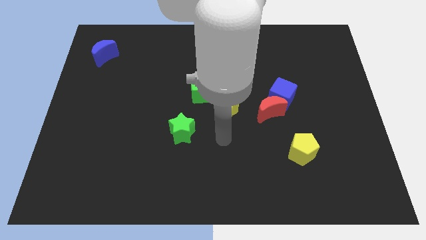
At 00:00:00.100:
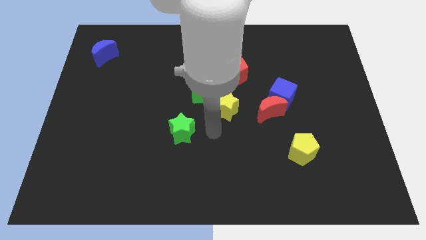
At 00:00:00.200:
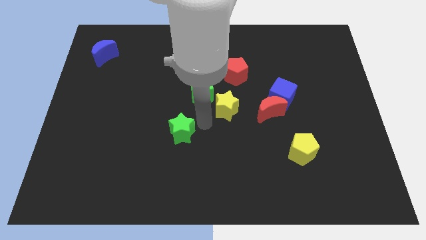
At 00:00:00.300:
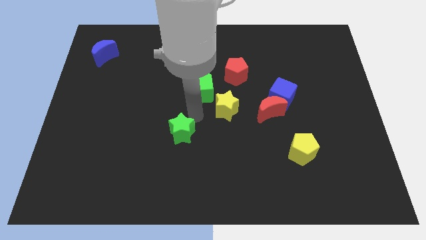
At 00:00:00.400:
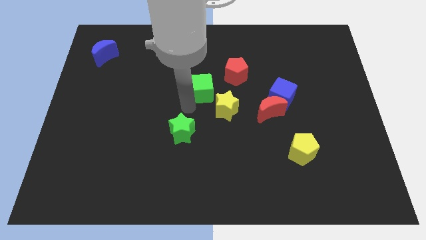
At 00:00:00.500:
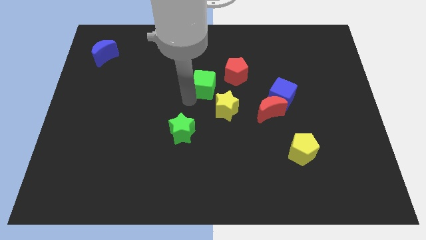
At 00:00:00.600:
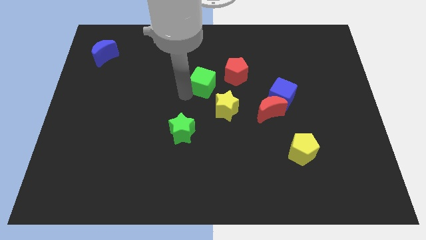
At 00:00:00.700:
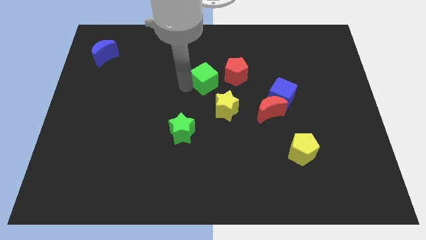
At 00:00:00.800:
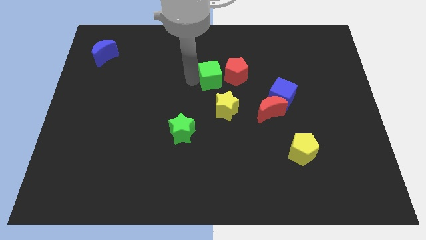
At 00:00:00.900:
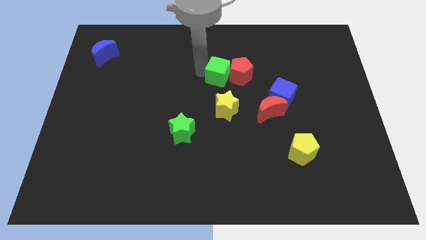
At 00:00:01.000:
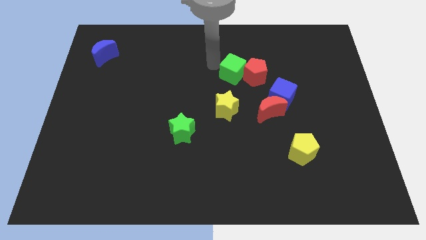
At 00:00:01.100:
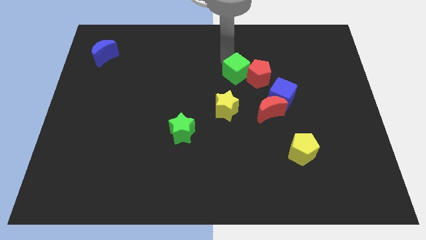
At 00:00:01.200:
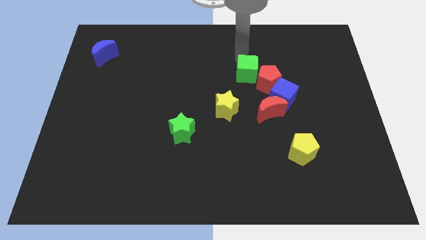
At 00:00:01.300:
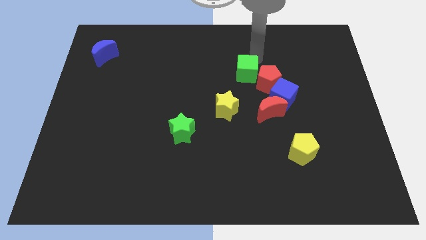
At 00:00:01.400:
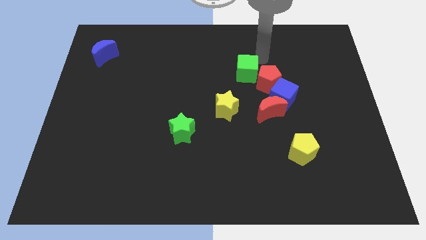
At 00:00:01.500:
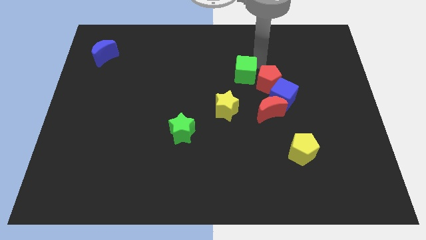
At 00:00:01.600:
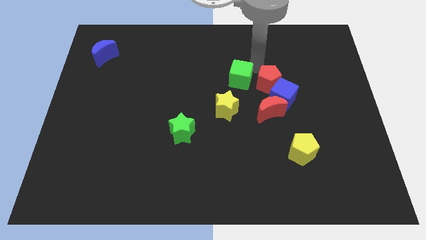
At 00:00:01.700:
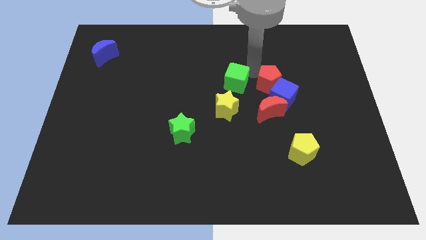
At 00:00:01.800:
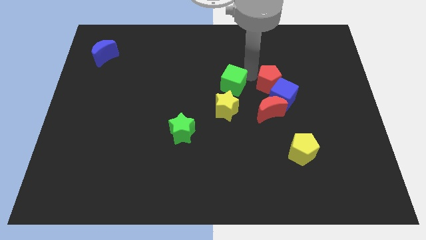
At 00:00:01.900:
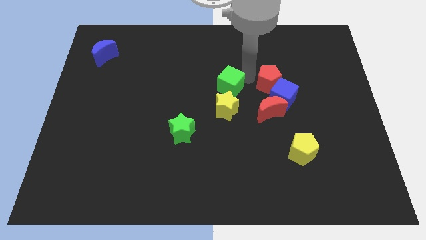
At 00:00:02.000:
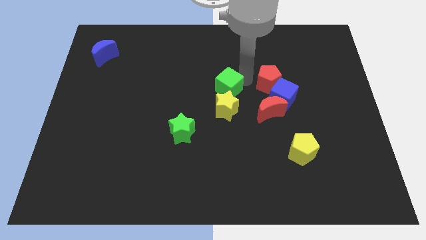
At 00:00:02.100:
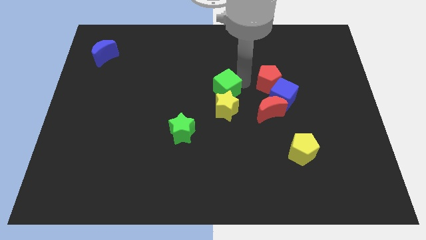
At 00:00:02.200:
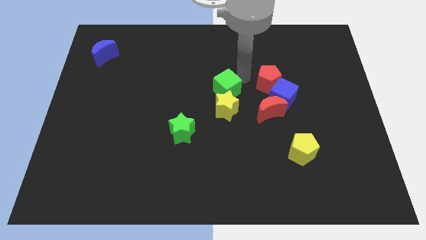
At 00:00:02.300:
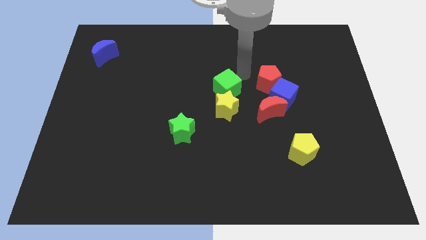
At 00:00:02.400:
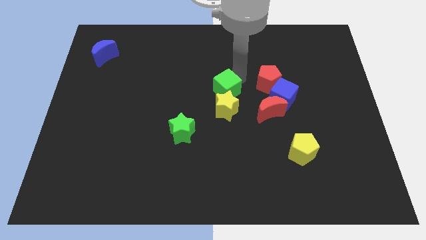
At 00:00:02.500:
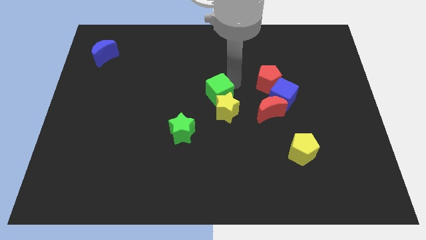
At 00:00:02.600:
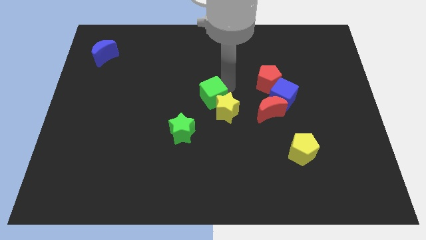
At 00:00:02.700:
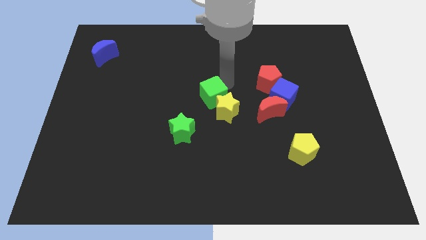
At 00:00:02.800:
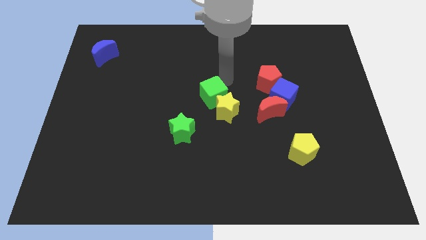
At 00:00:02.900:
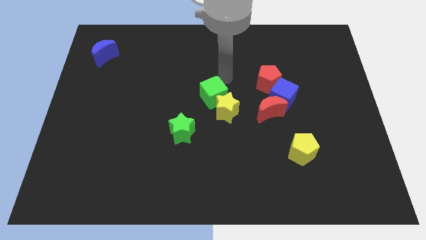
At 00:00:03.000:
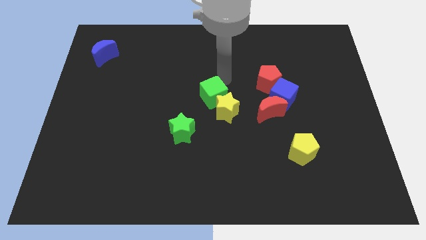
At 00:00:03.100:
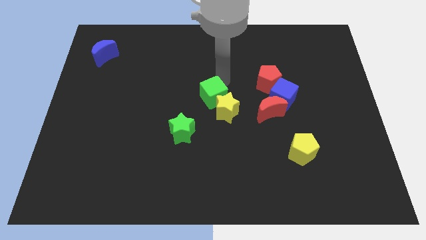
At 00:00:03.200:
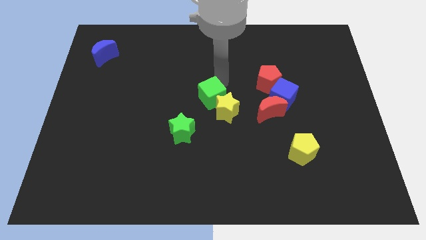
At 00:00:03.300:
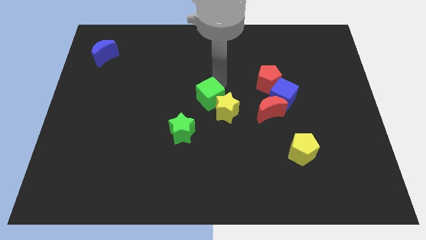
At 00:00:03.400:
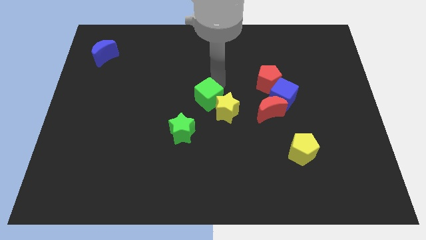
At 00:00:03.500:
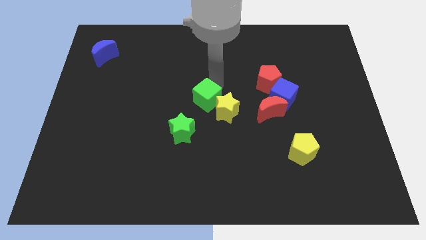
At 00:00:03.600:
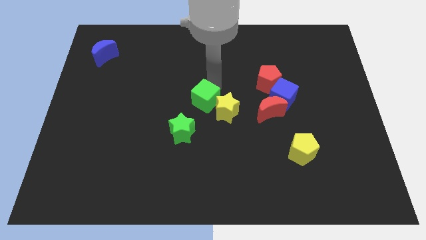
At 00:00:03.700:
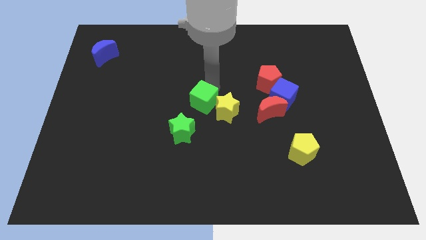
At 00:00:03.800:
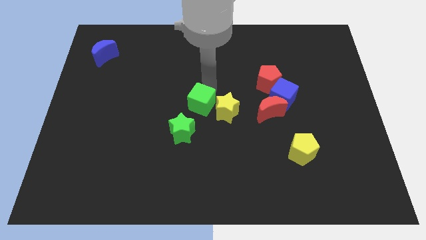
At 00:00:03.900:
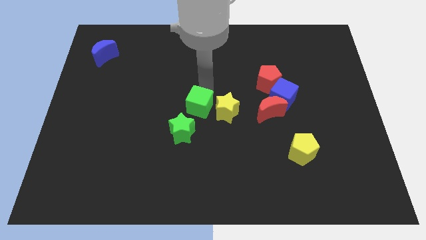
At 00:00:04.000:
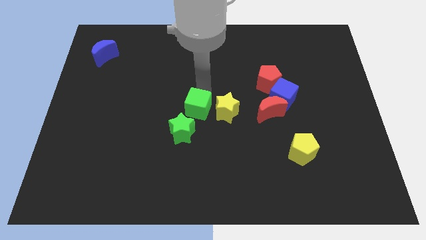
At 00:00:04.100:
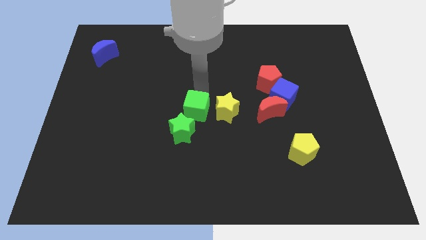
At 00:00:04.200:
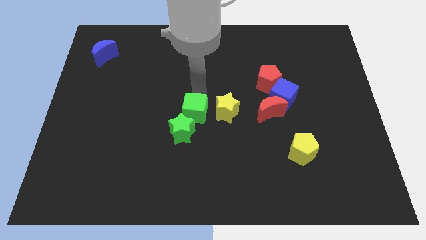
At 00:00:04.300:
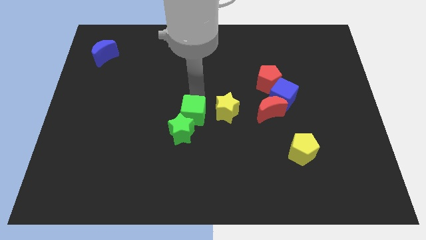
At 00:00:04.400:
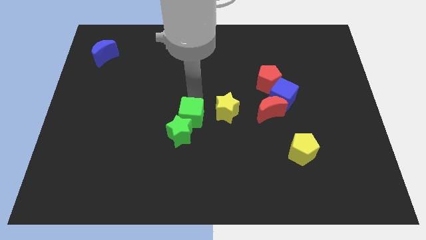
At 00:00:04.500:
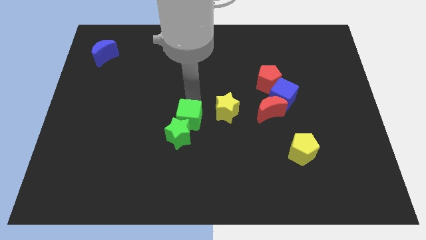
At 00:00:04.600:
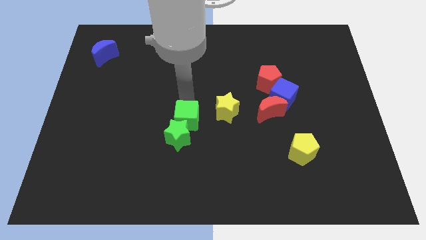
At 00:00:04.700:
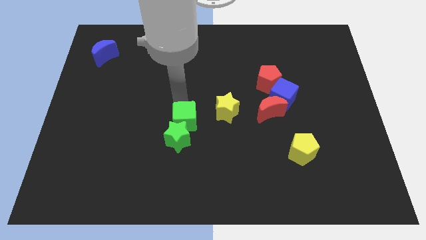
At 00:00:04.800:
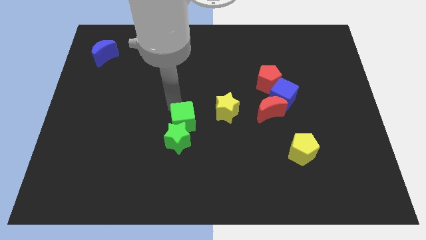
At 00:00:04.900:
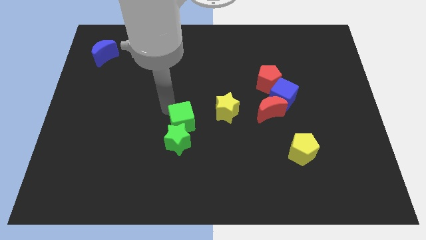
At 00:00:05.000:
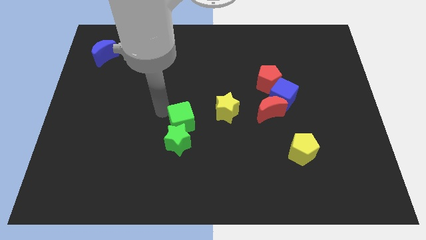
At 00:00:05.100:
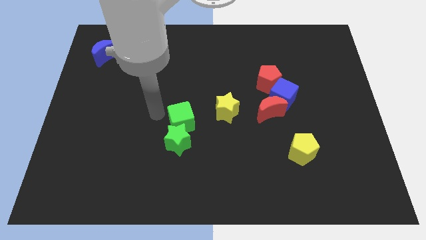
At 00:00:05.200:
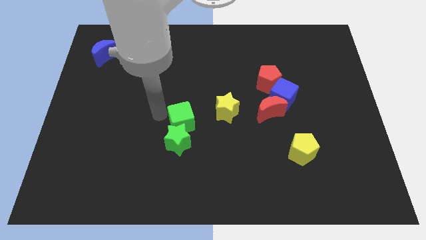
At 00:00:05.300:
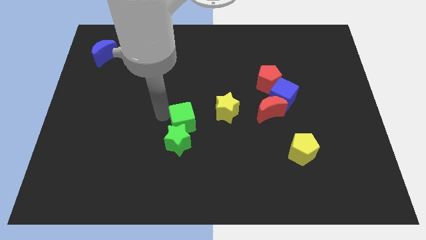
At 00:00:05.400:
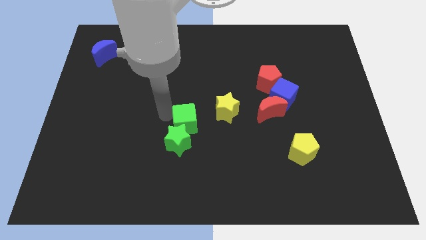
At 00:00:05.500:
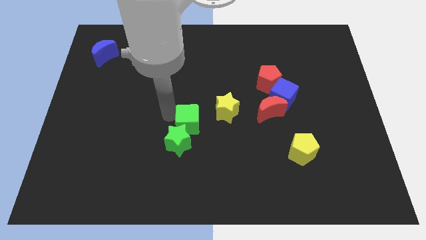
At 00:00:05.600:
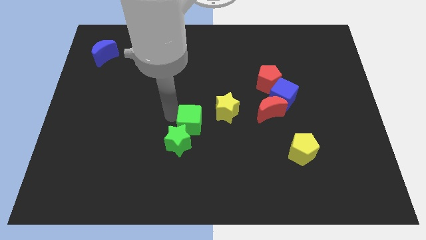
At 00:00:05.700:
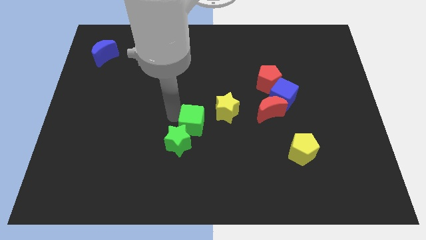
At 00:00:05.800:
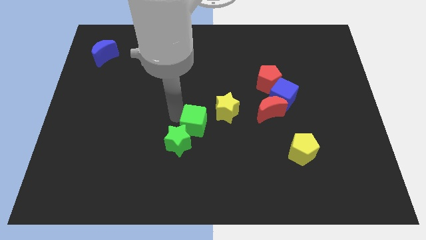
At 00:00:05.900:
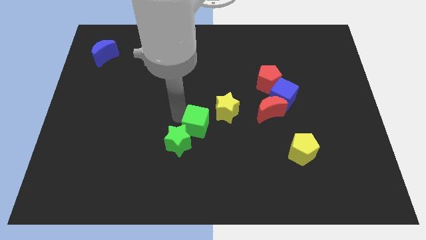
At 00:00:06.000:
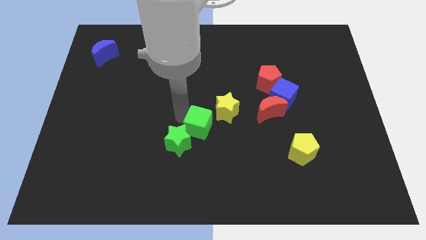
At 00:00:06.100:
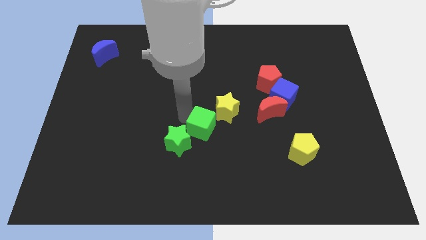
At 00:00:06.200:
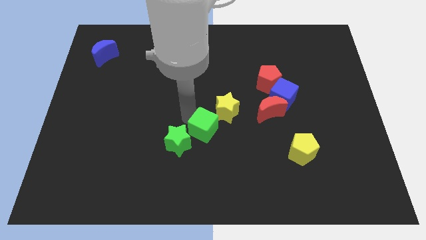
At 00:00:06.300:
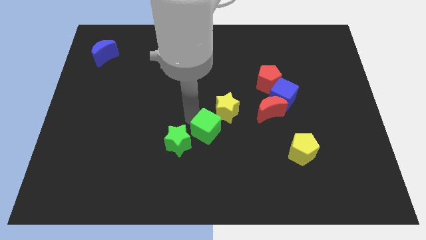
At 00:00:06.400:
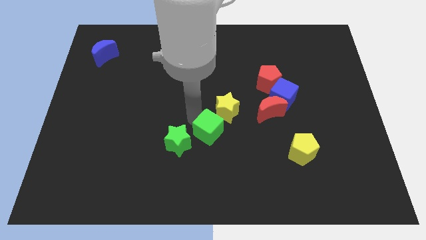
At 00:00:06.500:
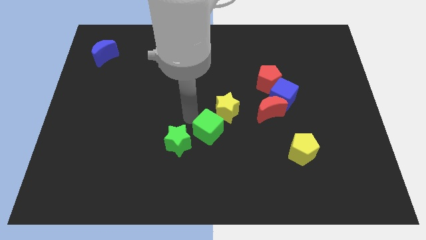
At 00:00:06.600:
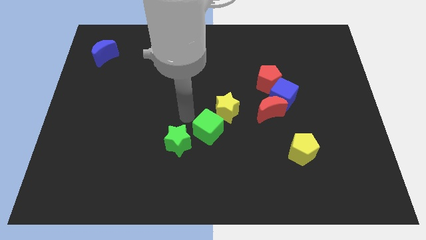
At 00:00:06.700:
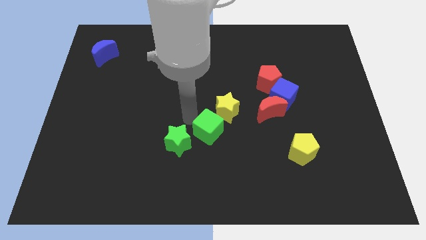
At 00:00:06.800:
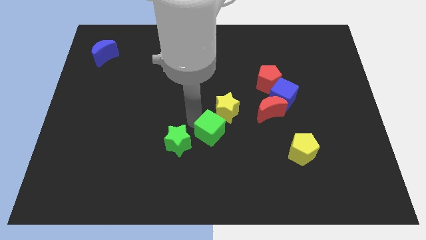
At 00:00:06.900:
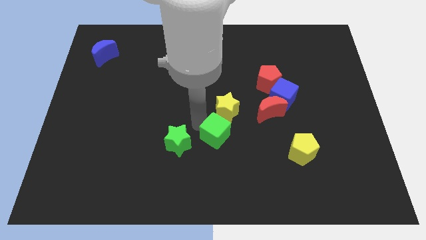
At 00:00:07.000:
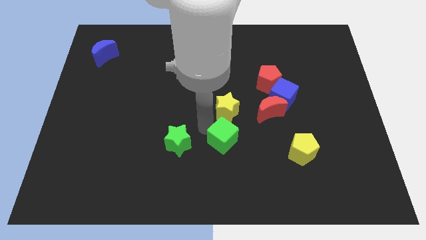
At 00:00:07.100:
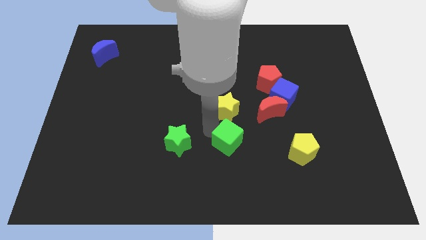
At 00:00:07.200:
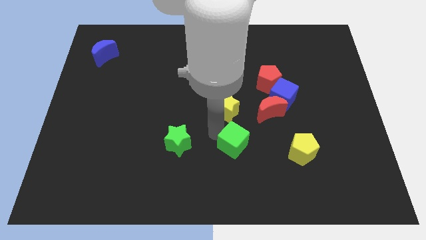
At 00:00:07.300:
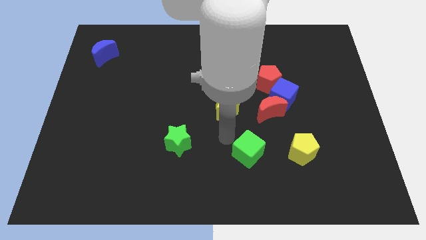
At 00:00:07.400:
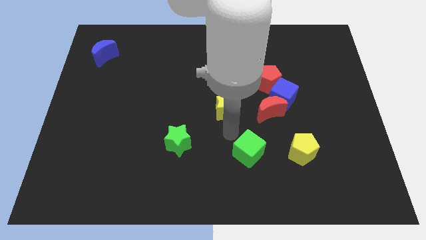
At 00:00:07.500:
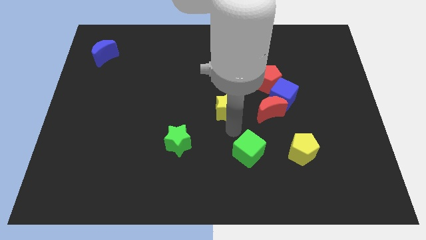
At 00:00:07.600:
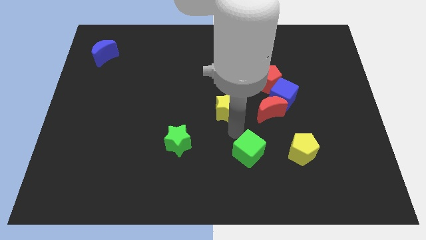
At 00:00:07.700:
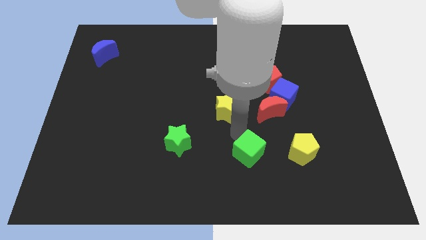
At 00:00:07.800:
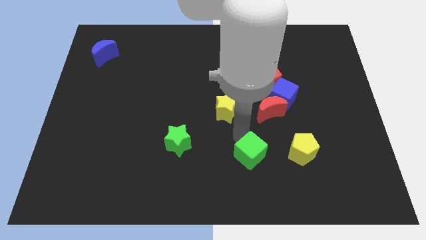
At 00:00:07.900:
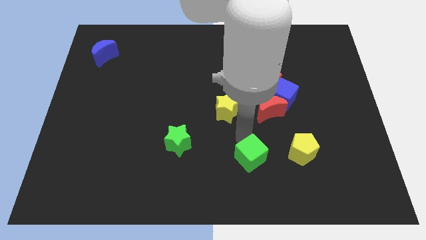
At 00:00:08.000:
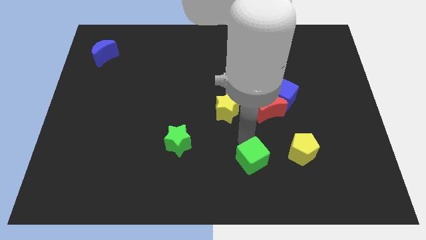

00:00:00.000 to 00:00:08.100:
slide the green cube down and then to the right
